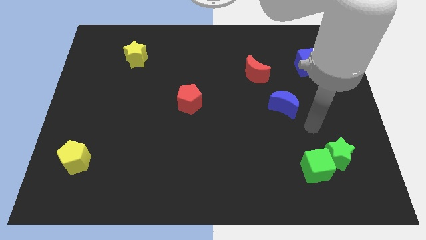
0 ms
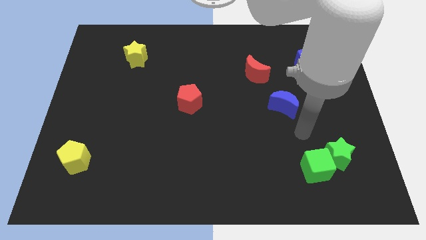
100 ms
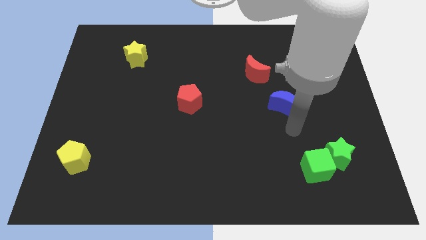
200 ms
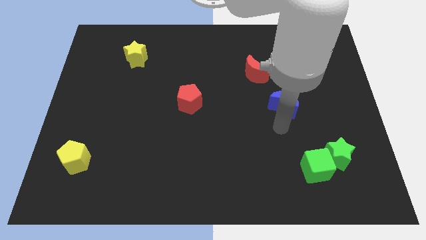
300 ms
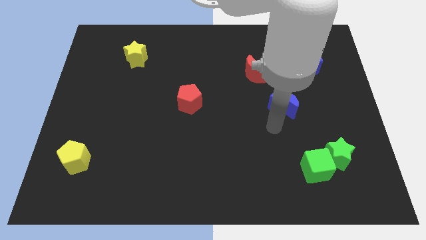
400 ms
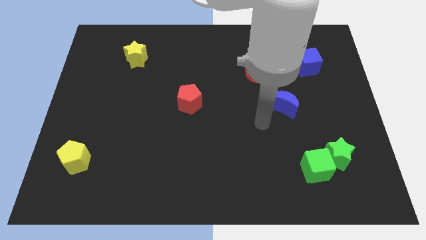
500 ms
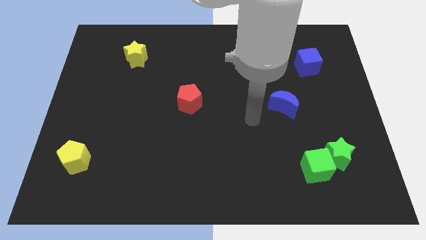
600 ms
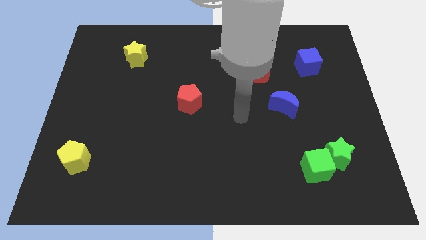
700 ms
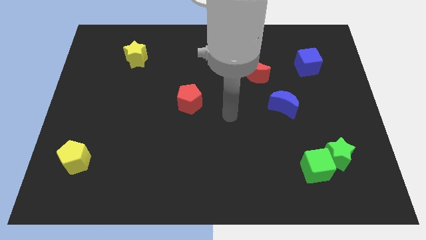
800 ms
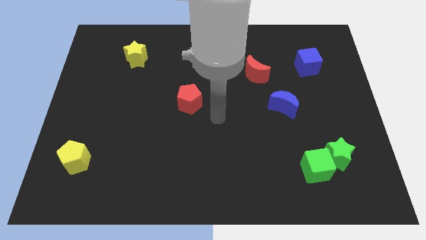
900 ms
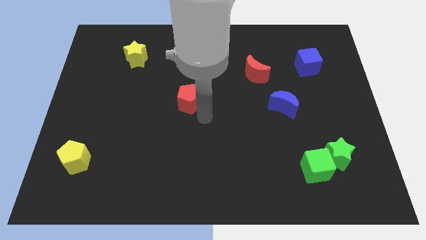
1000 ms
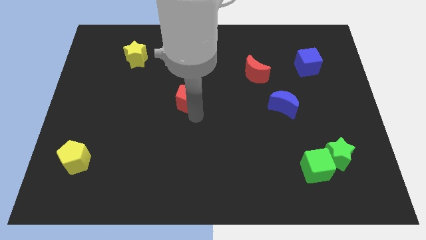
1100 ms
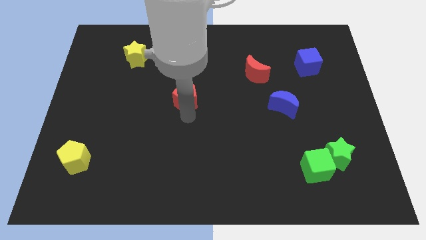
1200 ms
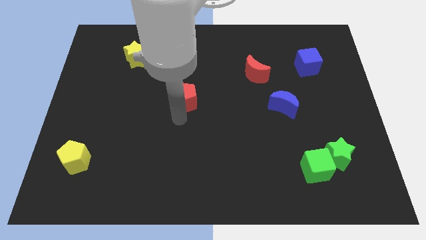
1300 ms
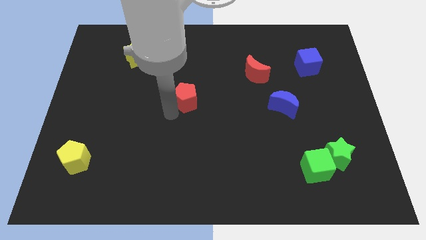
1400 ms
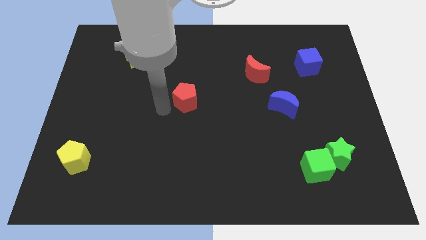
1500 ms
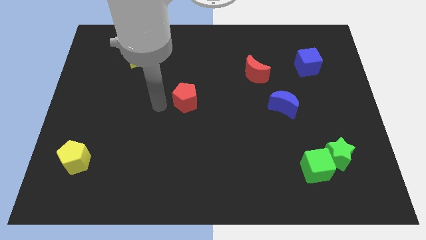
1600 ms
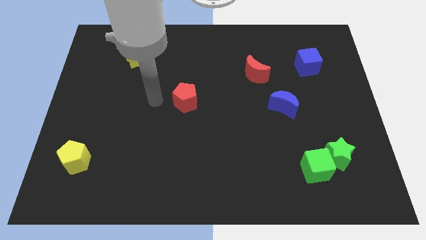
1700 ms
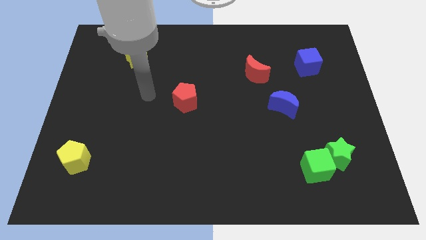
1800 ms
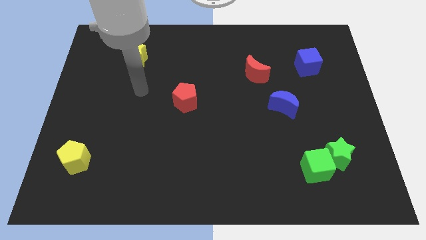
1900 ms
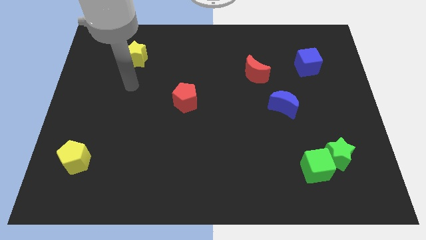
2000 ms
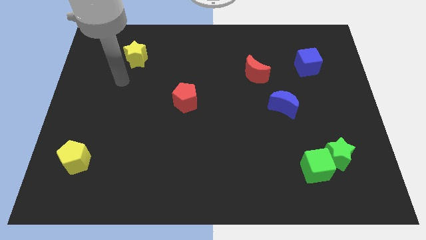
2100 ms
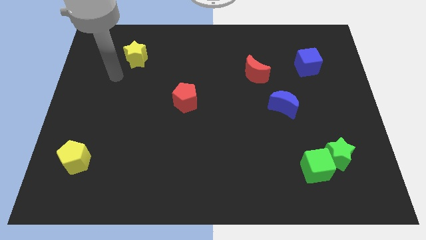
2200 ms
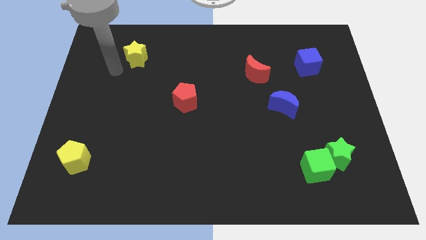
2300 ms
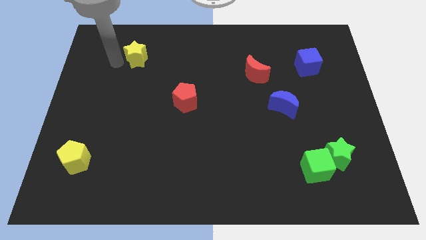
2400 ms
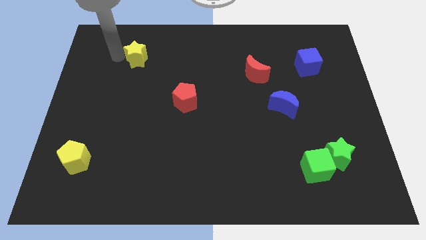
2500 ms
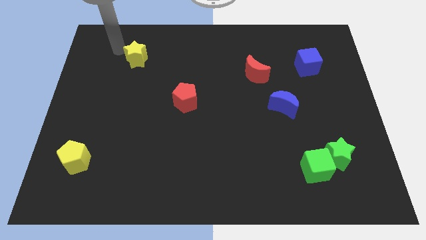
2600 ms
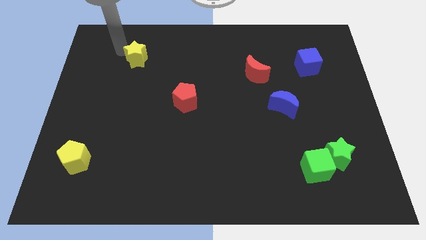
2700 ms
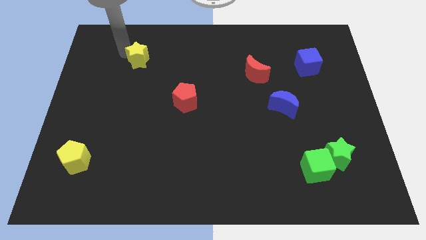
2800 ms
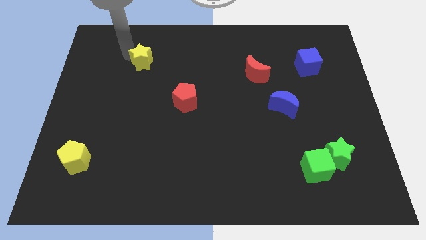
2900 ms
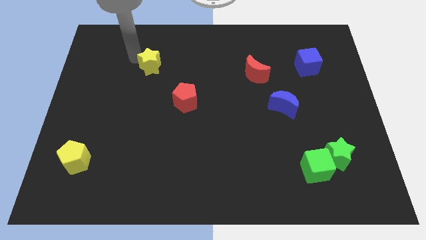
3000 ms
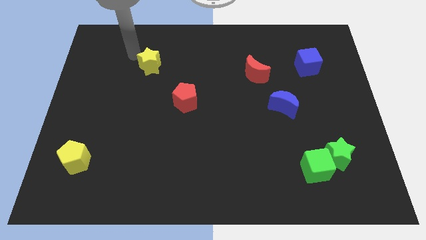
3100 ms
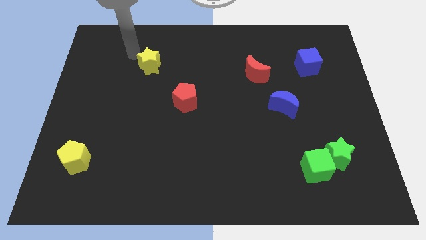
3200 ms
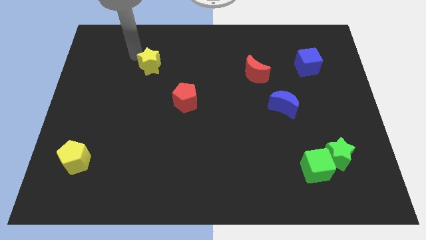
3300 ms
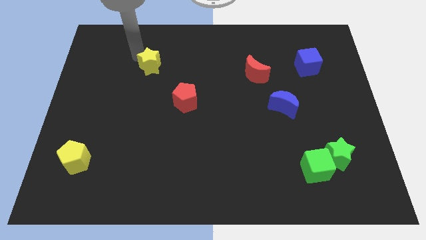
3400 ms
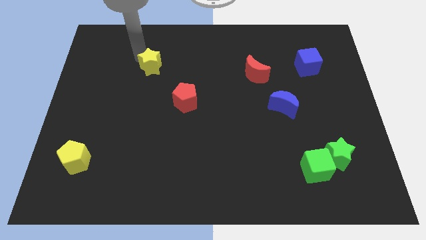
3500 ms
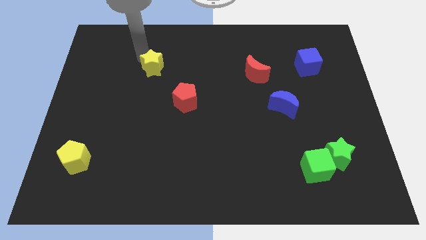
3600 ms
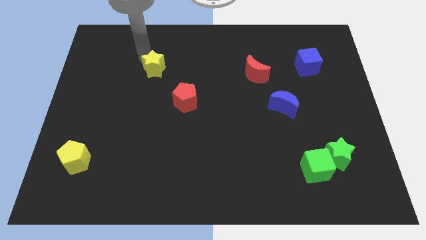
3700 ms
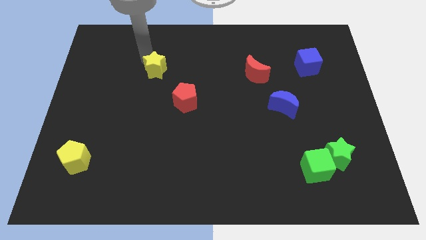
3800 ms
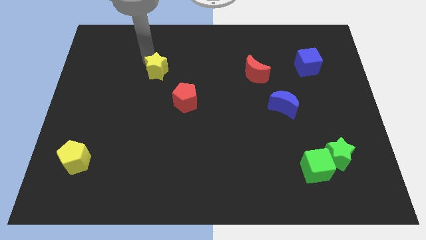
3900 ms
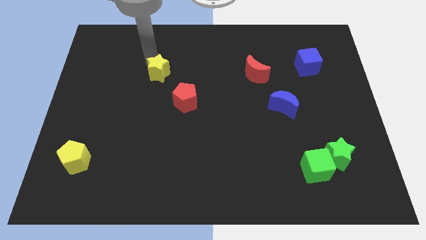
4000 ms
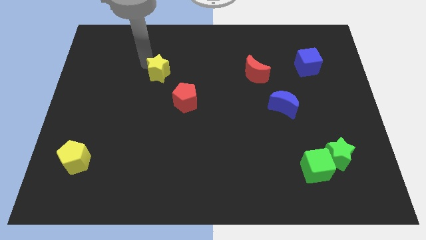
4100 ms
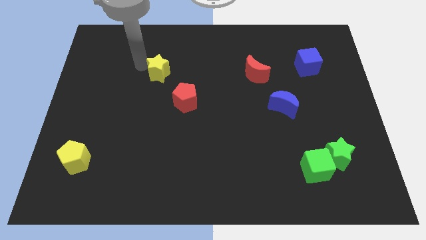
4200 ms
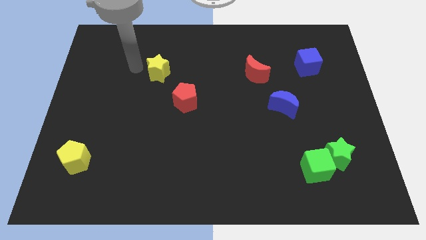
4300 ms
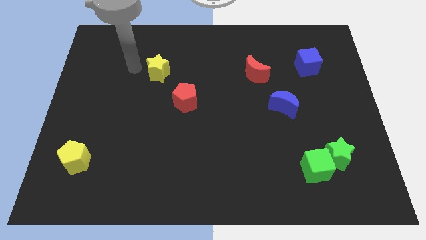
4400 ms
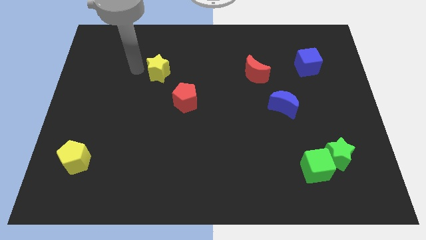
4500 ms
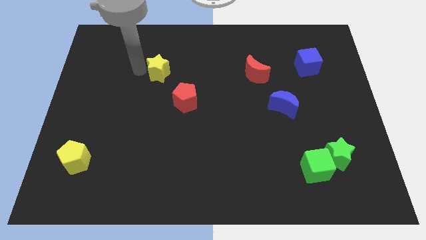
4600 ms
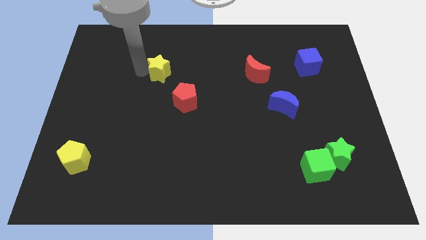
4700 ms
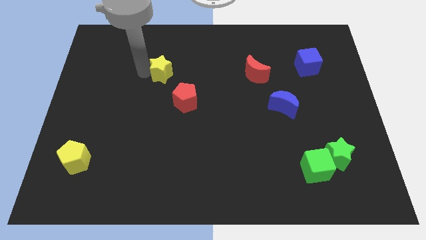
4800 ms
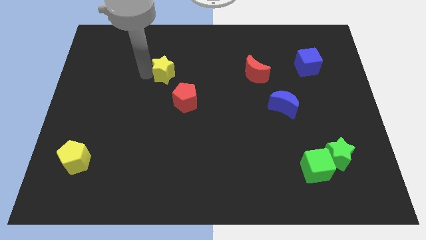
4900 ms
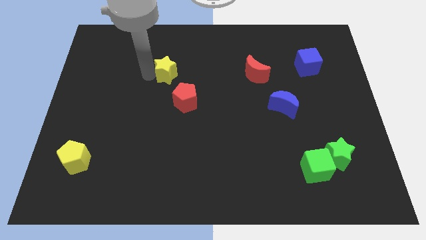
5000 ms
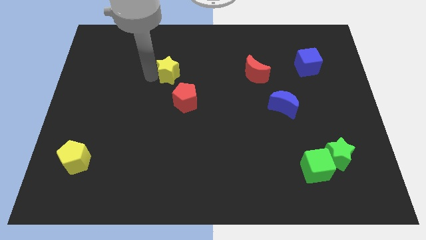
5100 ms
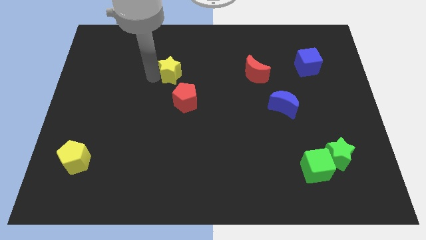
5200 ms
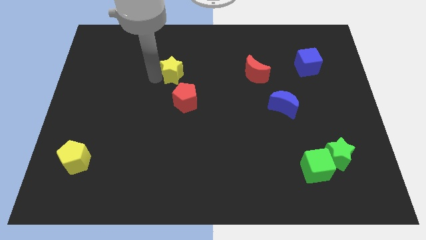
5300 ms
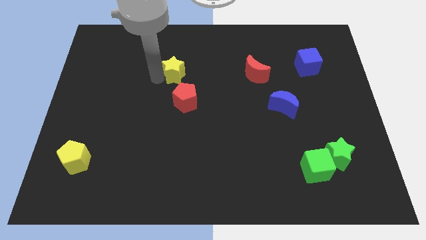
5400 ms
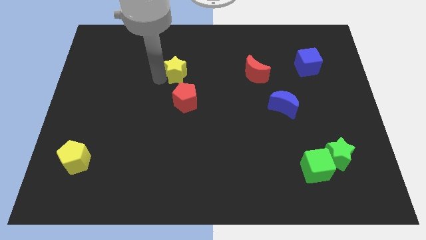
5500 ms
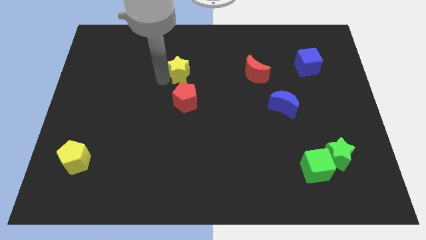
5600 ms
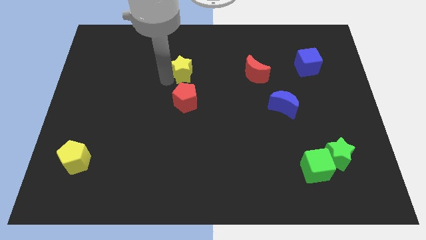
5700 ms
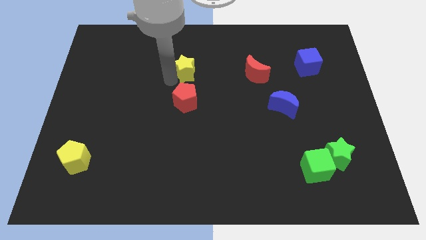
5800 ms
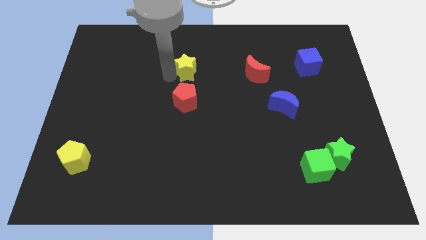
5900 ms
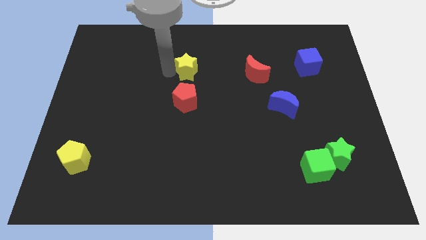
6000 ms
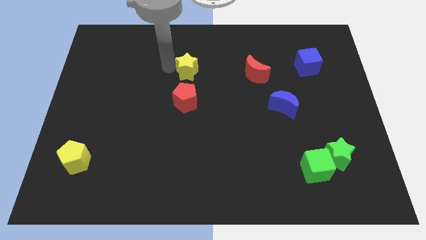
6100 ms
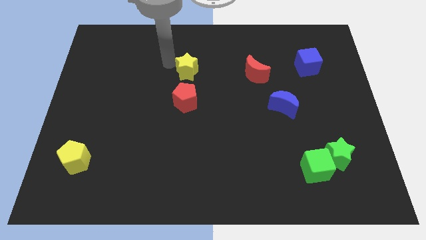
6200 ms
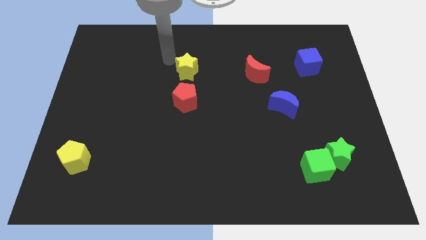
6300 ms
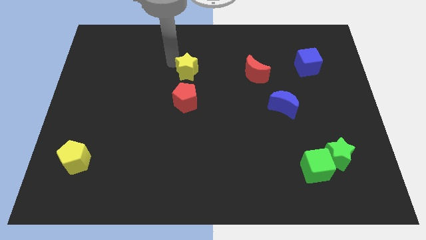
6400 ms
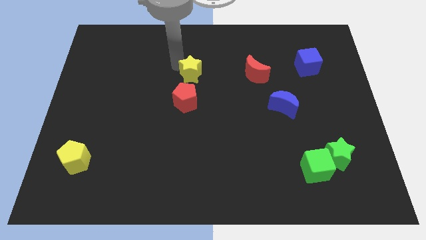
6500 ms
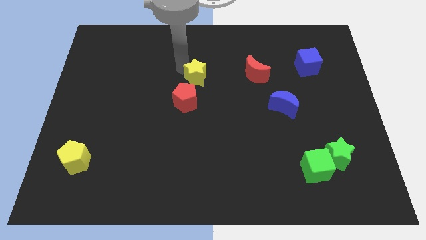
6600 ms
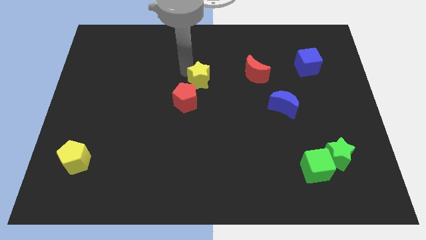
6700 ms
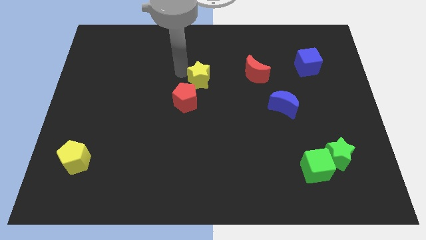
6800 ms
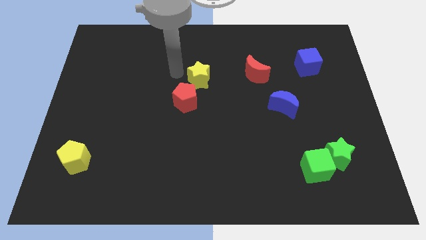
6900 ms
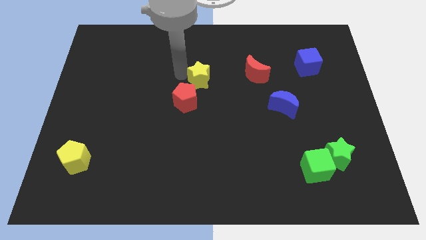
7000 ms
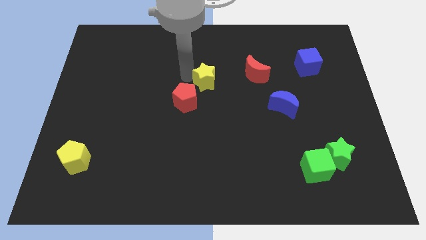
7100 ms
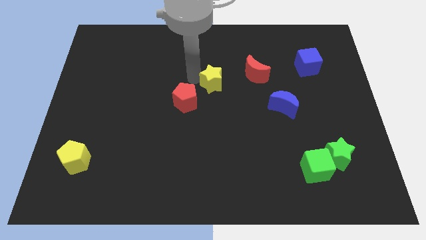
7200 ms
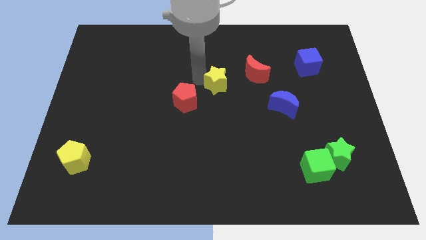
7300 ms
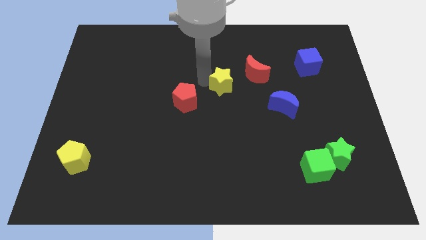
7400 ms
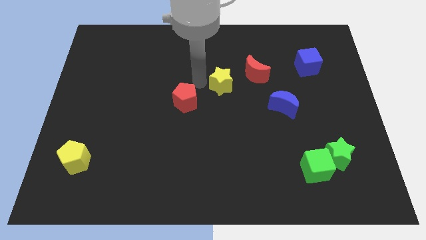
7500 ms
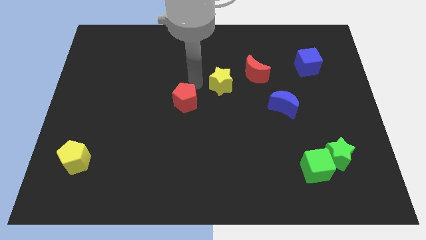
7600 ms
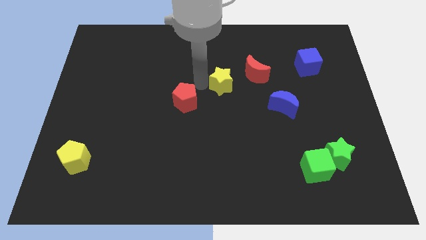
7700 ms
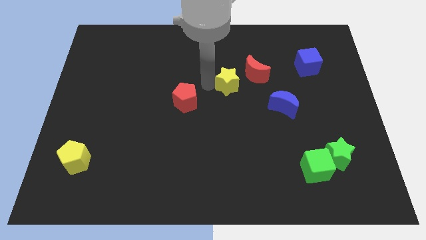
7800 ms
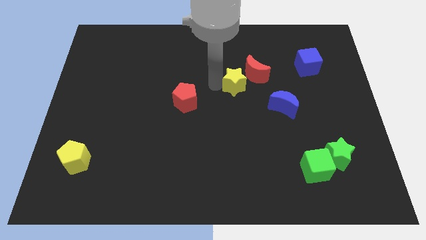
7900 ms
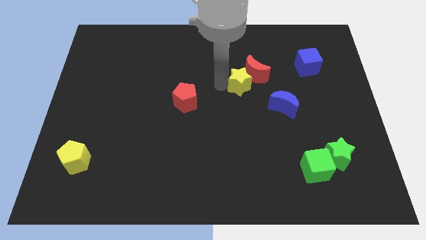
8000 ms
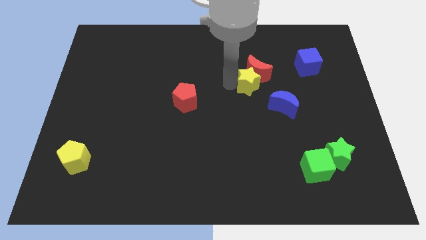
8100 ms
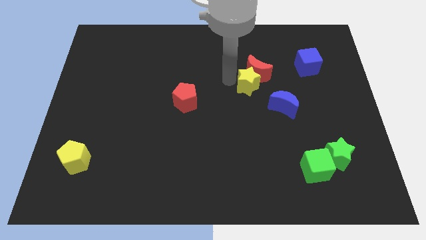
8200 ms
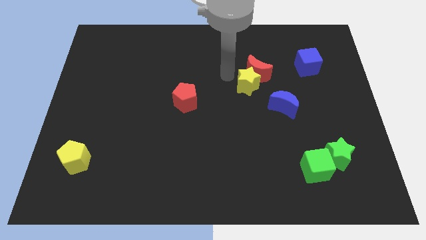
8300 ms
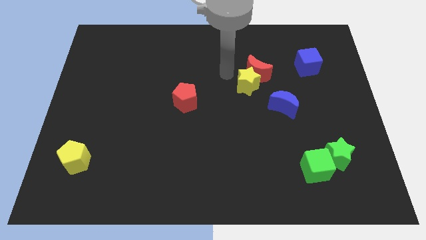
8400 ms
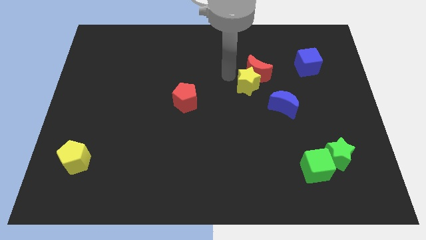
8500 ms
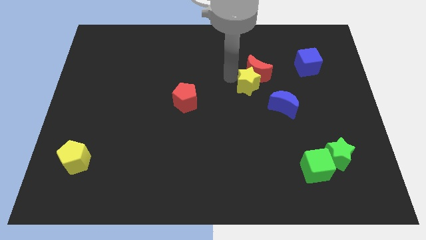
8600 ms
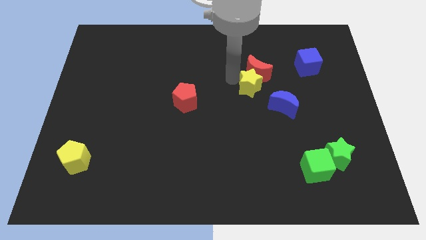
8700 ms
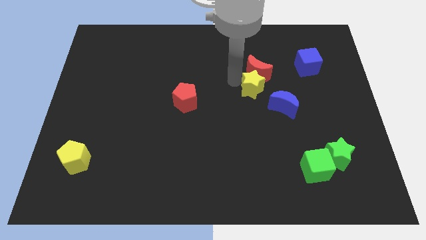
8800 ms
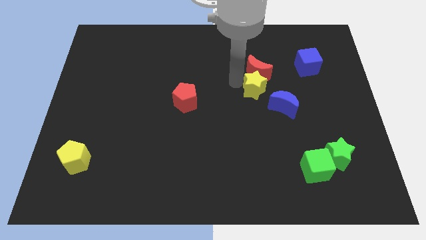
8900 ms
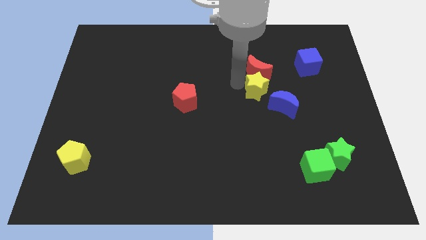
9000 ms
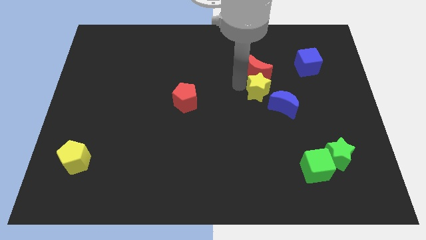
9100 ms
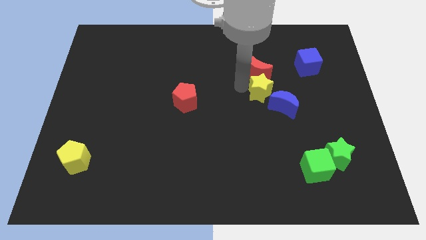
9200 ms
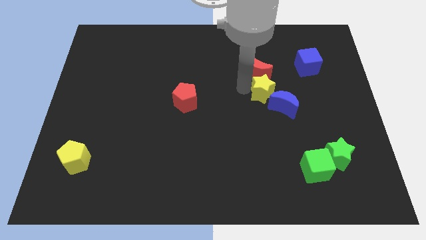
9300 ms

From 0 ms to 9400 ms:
move the yellow star to the blue moon
